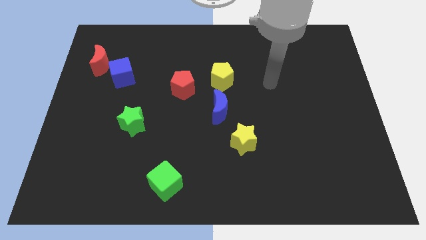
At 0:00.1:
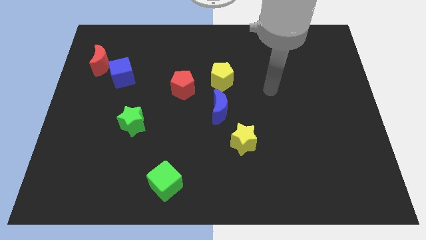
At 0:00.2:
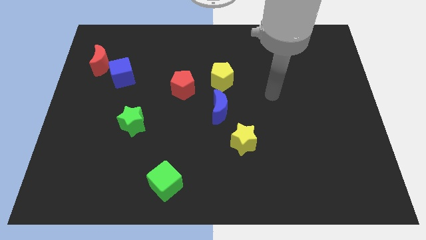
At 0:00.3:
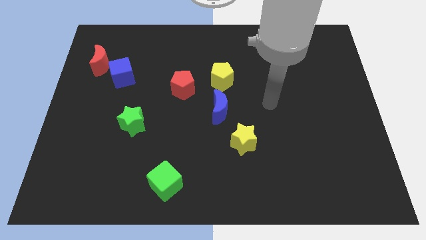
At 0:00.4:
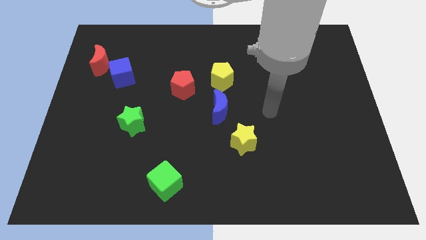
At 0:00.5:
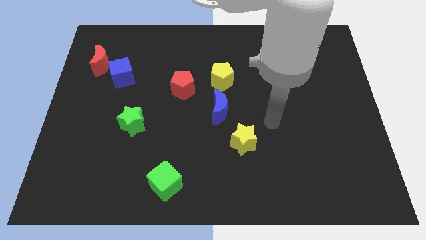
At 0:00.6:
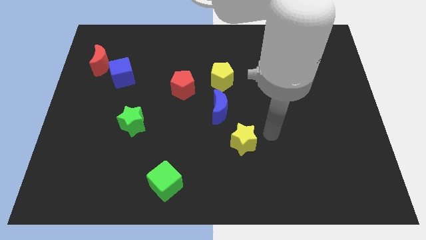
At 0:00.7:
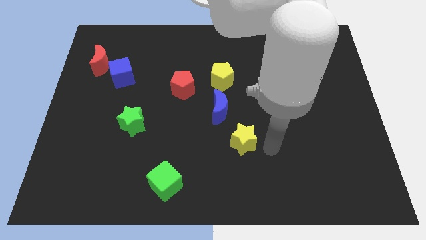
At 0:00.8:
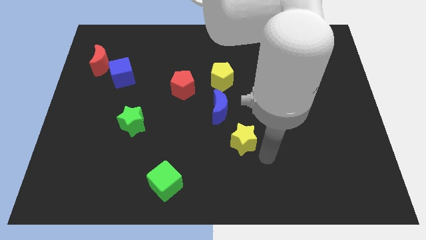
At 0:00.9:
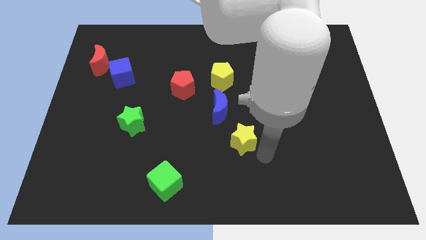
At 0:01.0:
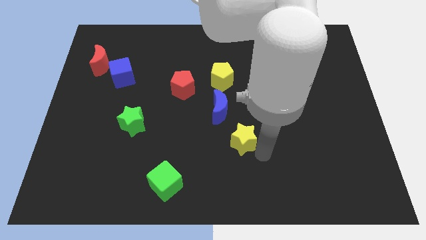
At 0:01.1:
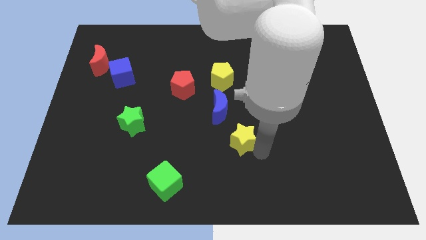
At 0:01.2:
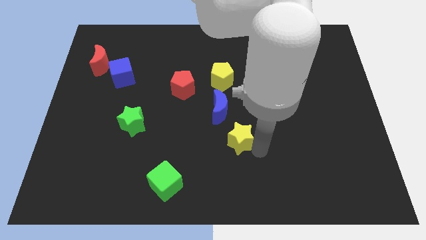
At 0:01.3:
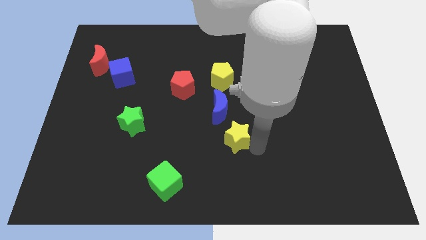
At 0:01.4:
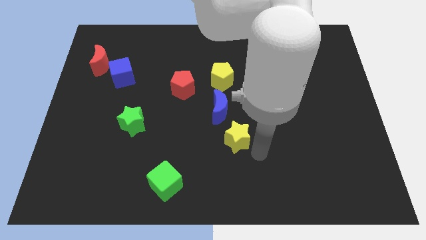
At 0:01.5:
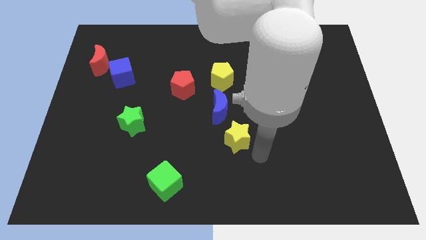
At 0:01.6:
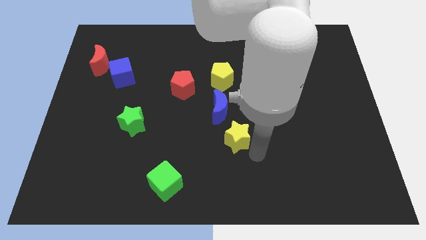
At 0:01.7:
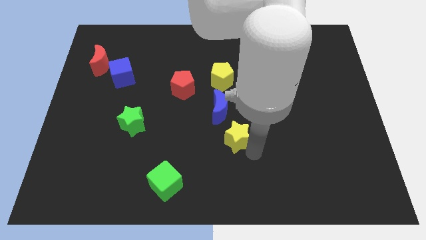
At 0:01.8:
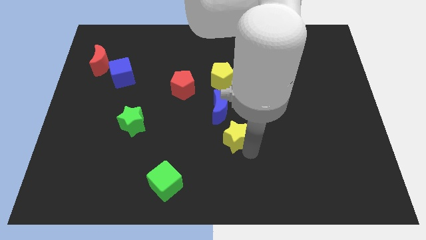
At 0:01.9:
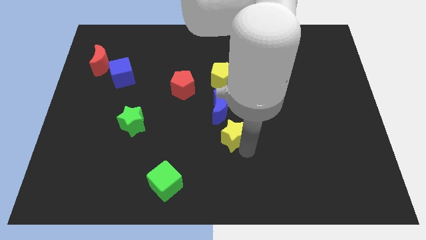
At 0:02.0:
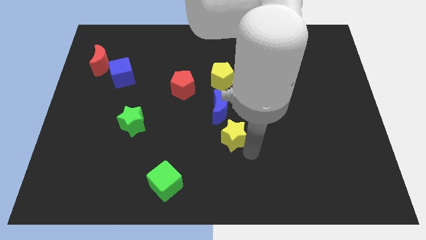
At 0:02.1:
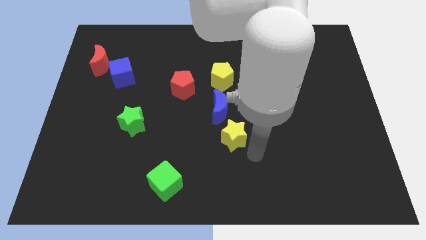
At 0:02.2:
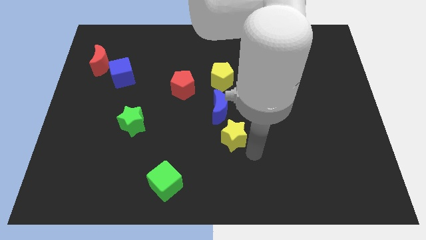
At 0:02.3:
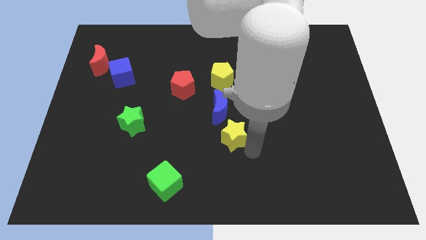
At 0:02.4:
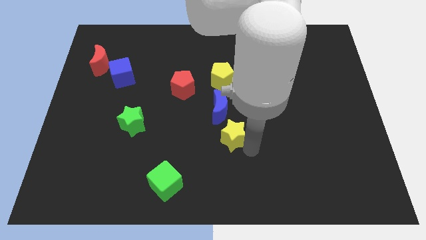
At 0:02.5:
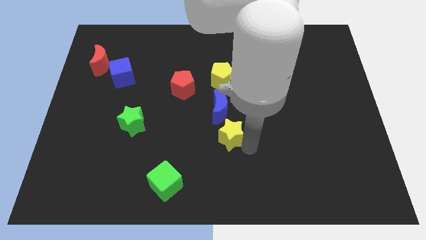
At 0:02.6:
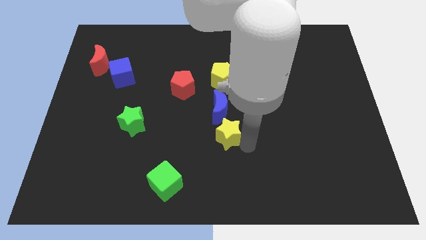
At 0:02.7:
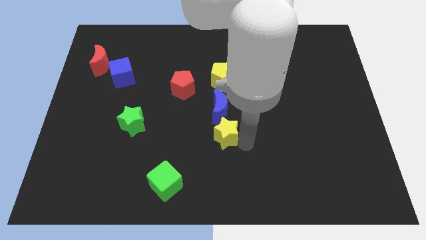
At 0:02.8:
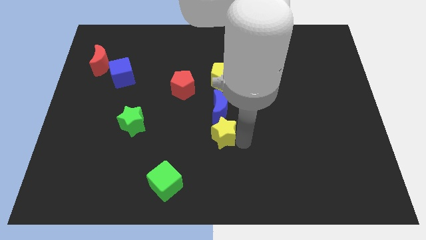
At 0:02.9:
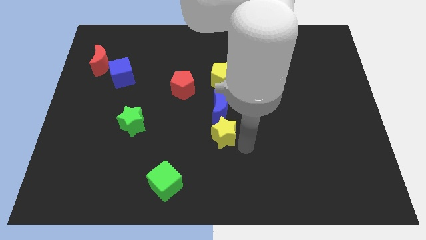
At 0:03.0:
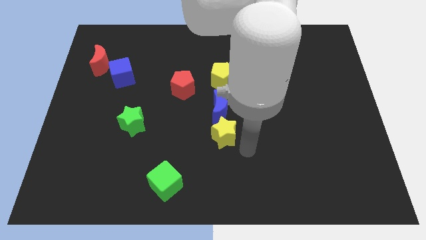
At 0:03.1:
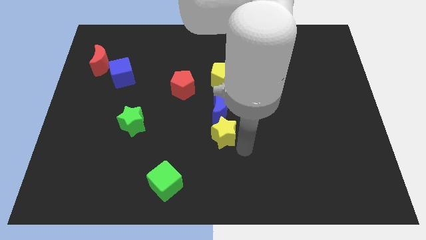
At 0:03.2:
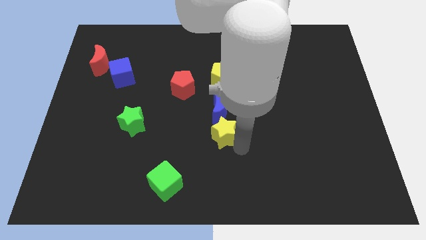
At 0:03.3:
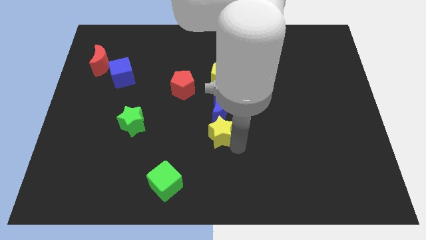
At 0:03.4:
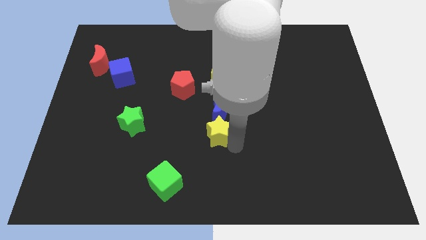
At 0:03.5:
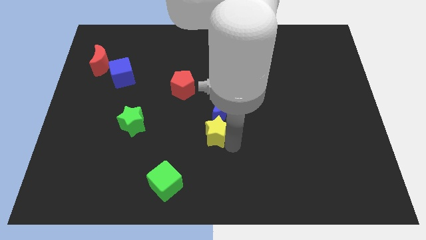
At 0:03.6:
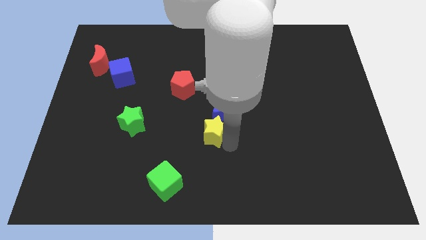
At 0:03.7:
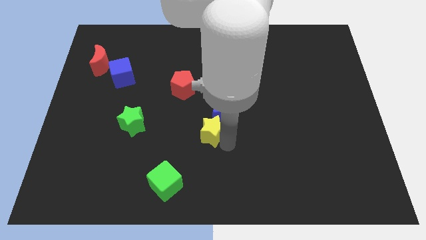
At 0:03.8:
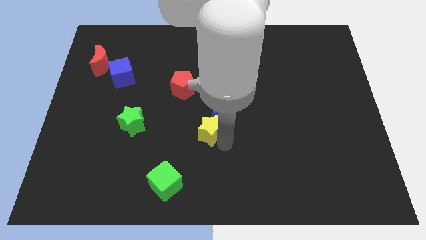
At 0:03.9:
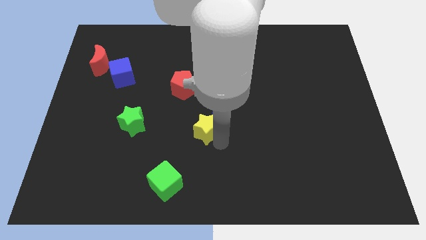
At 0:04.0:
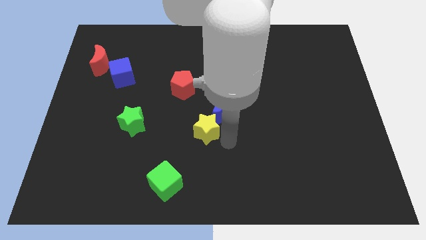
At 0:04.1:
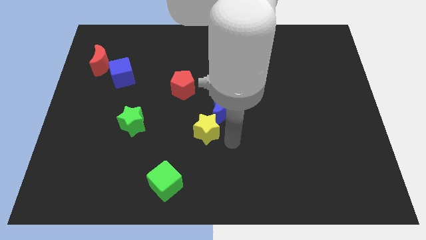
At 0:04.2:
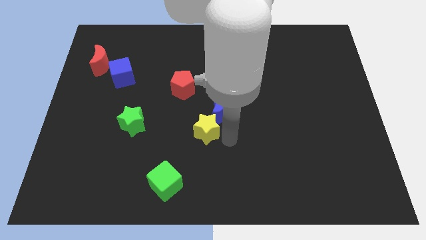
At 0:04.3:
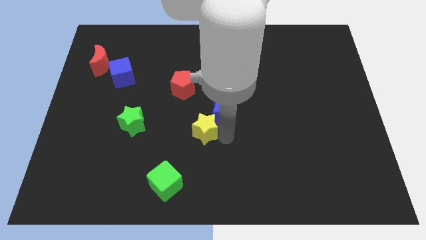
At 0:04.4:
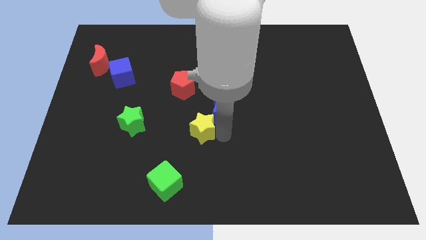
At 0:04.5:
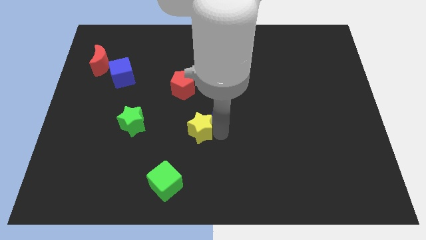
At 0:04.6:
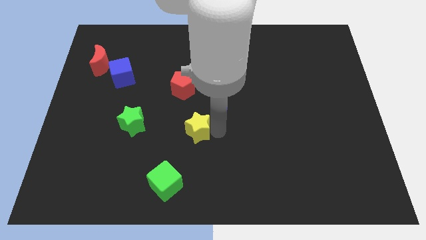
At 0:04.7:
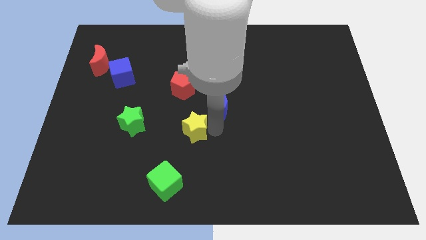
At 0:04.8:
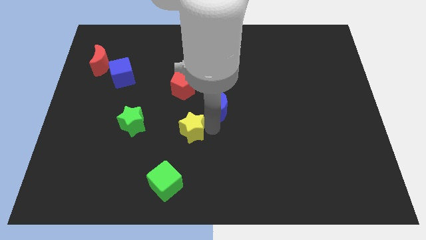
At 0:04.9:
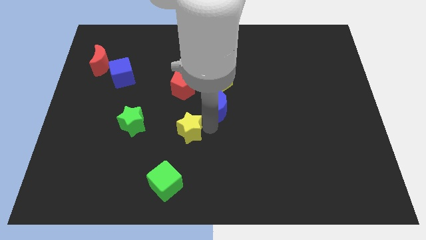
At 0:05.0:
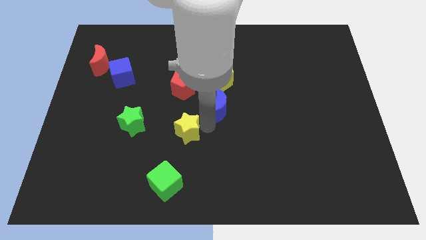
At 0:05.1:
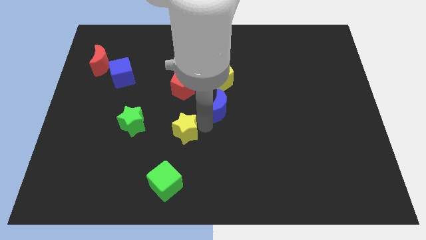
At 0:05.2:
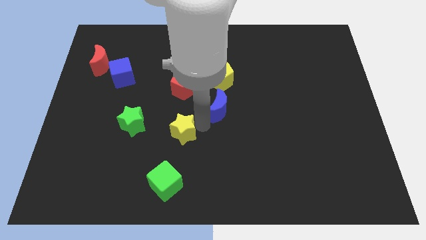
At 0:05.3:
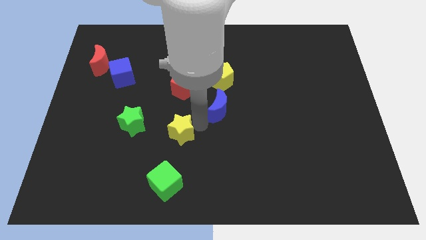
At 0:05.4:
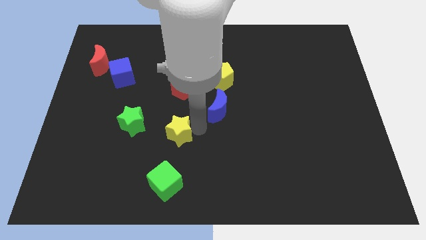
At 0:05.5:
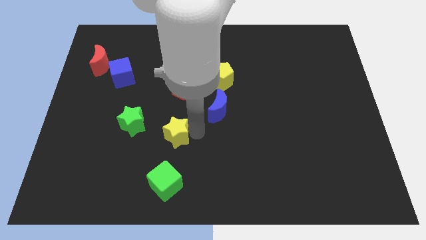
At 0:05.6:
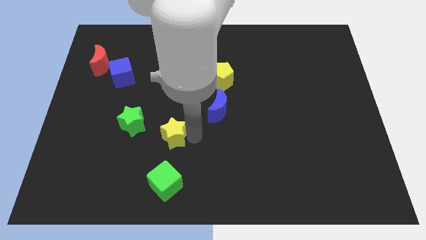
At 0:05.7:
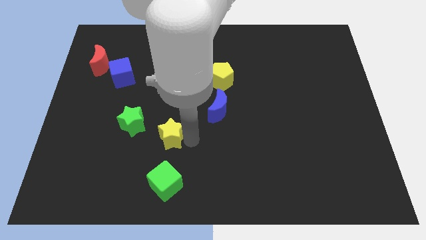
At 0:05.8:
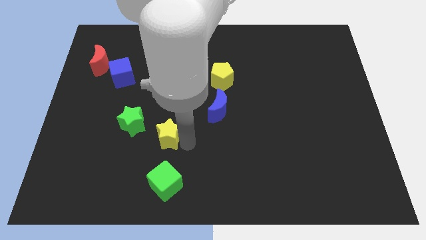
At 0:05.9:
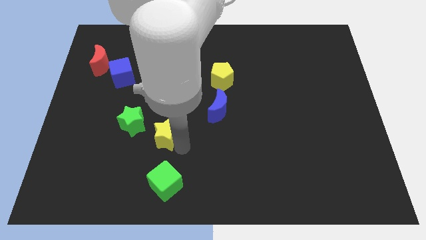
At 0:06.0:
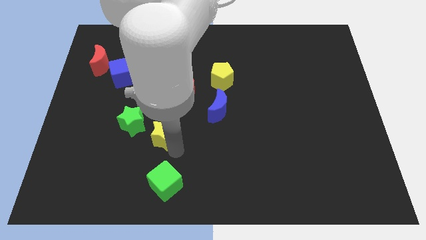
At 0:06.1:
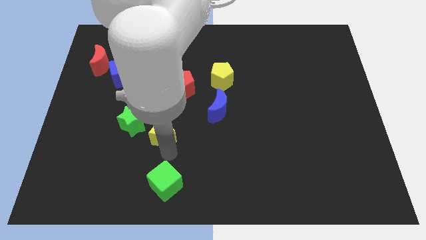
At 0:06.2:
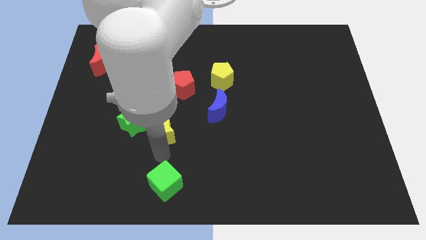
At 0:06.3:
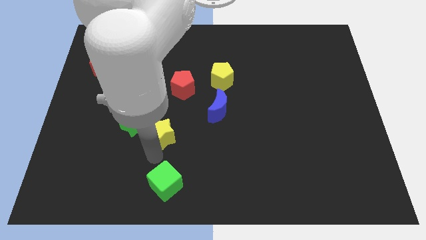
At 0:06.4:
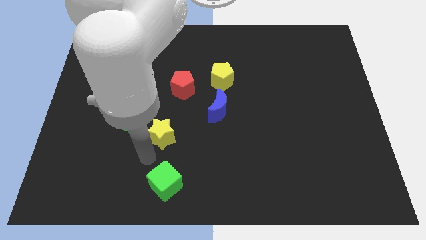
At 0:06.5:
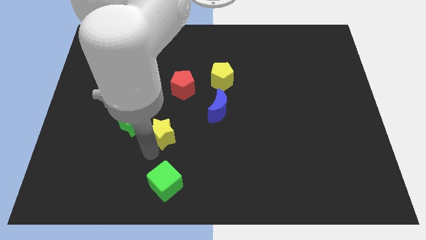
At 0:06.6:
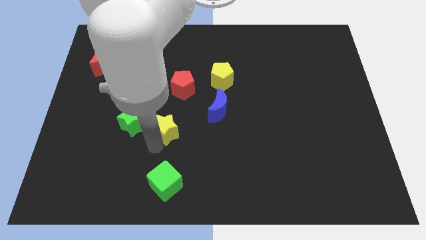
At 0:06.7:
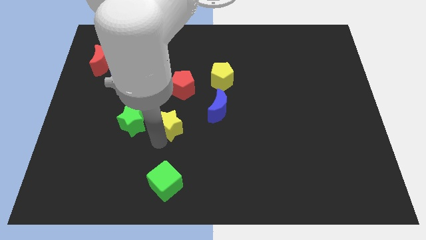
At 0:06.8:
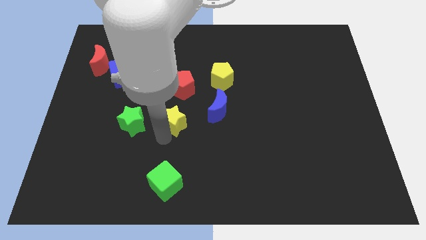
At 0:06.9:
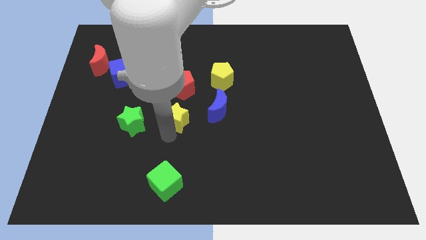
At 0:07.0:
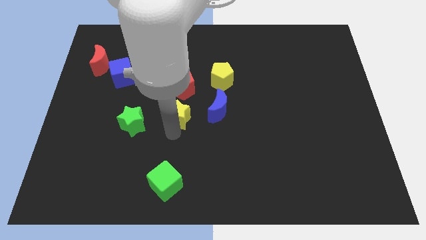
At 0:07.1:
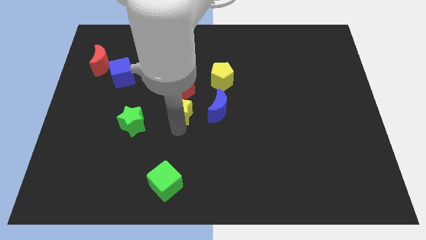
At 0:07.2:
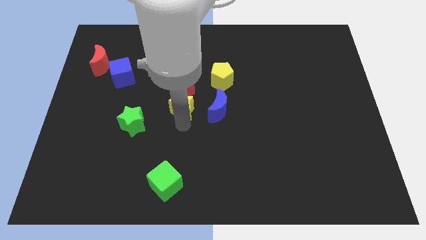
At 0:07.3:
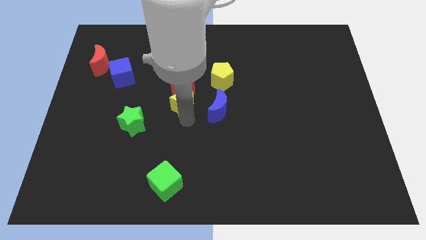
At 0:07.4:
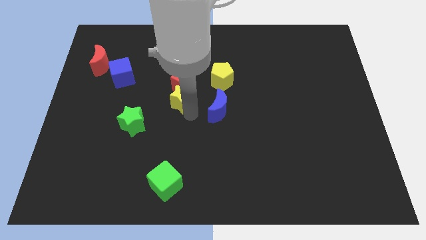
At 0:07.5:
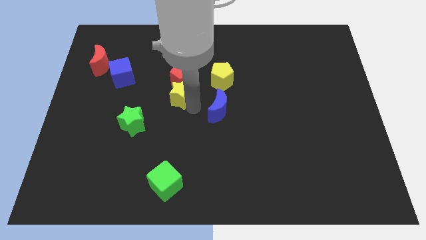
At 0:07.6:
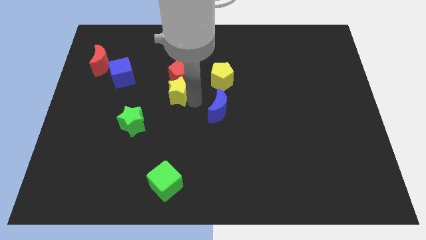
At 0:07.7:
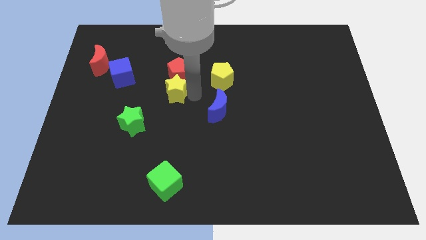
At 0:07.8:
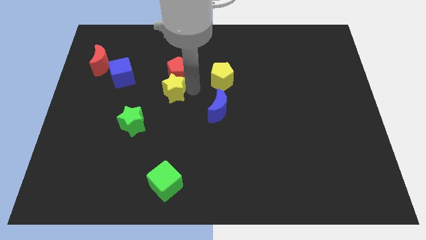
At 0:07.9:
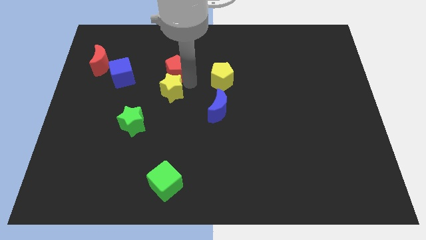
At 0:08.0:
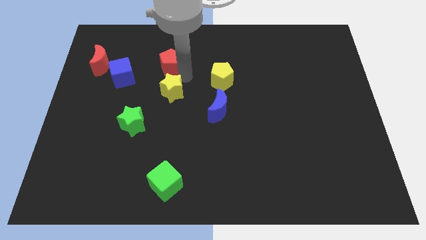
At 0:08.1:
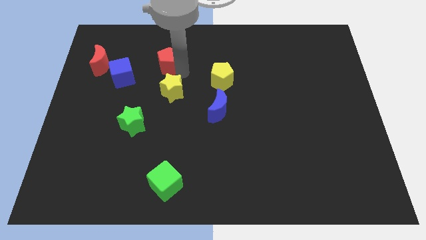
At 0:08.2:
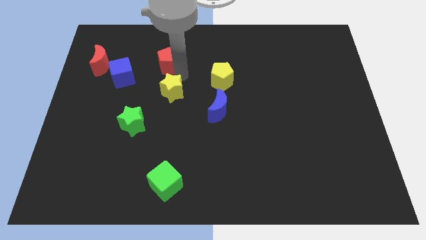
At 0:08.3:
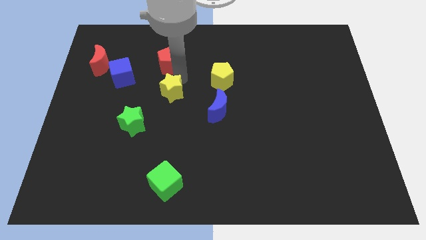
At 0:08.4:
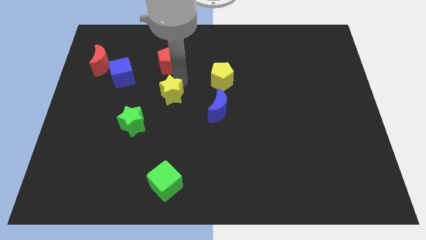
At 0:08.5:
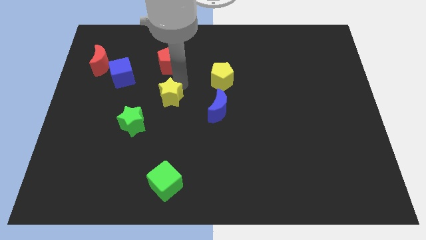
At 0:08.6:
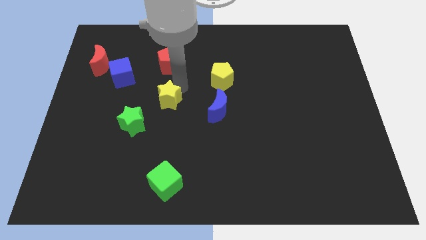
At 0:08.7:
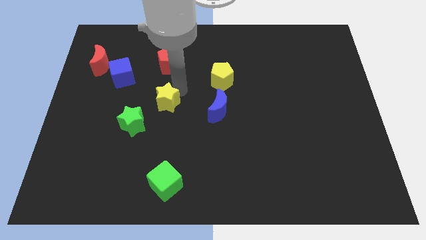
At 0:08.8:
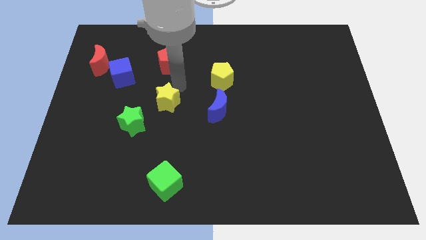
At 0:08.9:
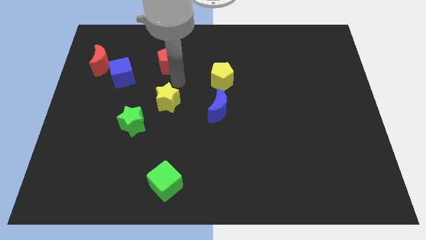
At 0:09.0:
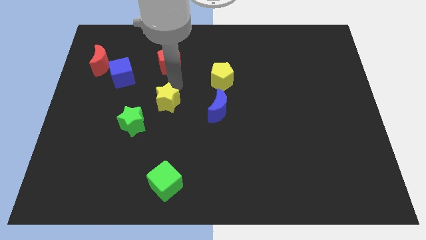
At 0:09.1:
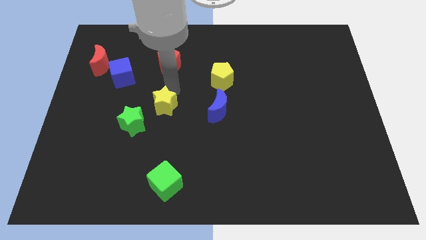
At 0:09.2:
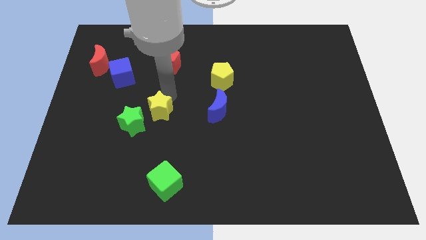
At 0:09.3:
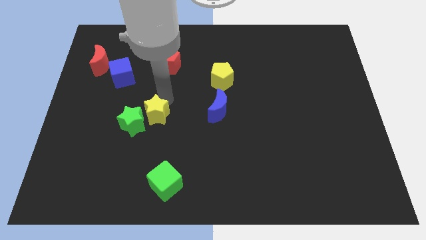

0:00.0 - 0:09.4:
put the yellow star towards the green star
